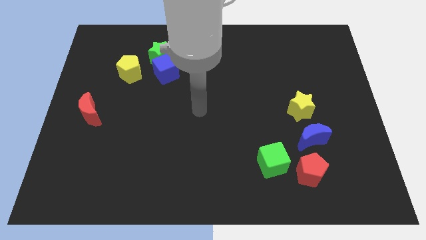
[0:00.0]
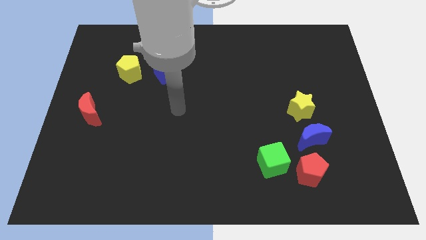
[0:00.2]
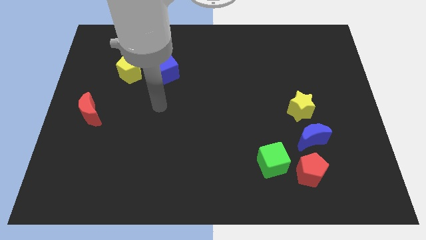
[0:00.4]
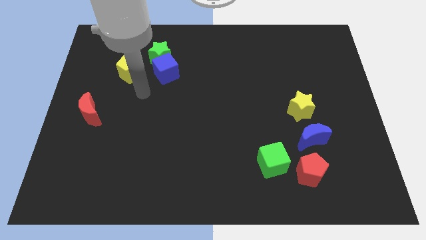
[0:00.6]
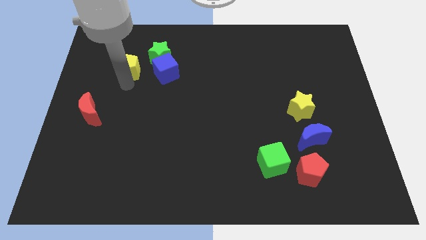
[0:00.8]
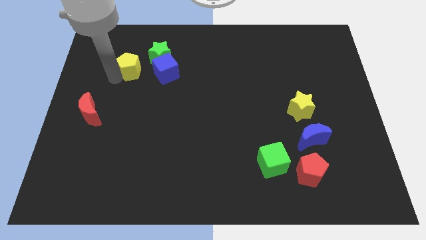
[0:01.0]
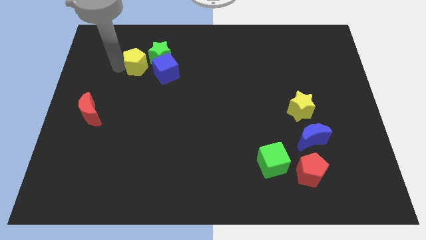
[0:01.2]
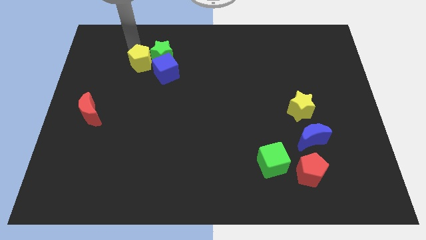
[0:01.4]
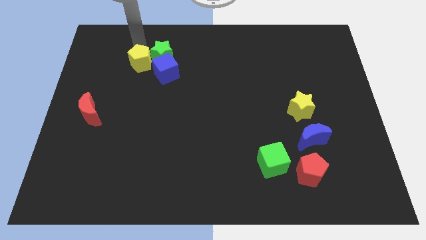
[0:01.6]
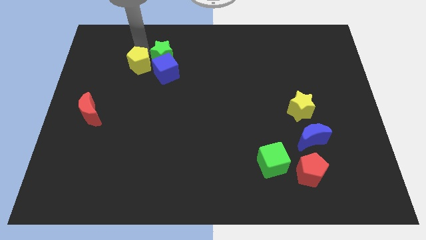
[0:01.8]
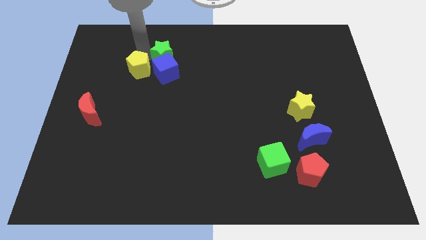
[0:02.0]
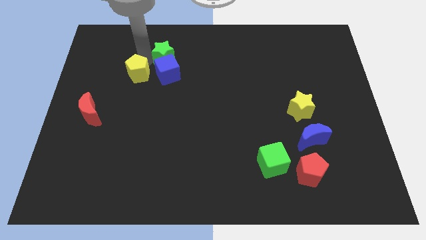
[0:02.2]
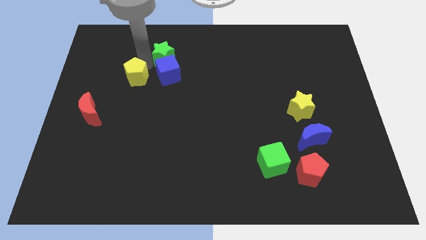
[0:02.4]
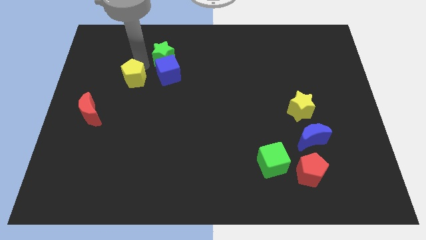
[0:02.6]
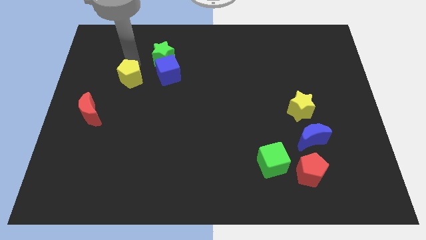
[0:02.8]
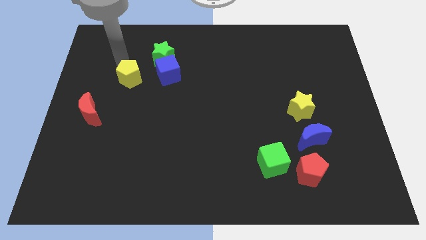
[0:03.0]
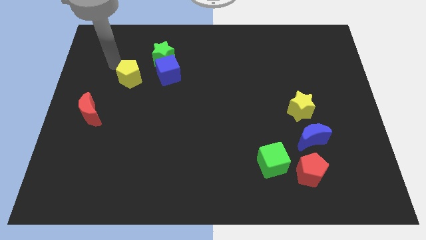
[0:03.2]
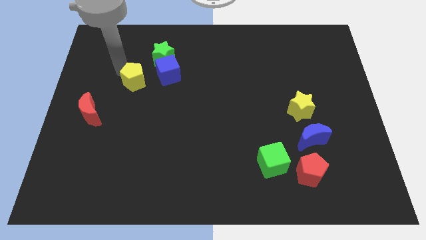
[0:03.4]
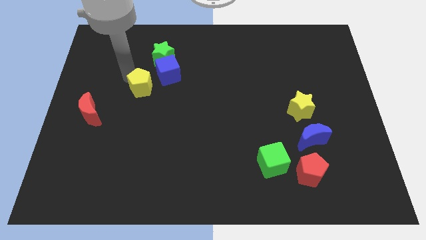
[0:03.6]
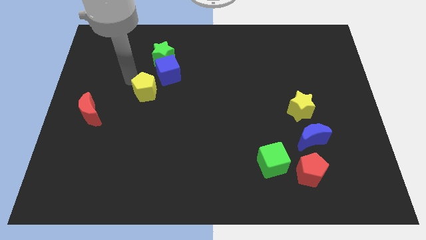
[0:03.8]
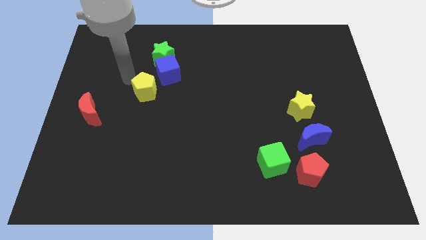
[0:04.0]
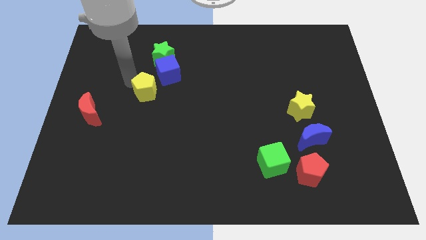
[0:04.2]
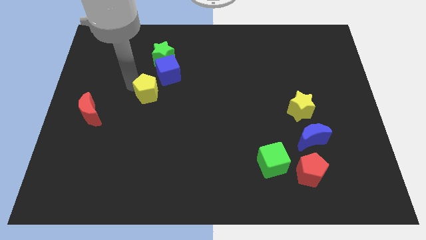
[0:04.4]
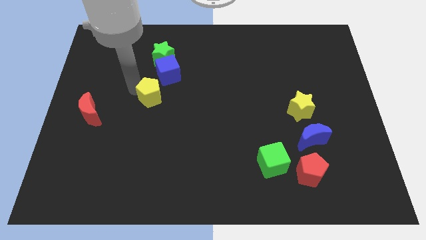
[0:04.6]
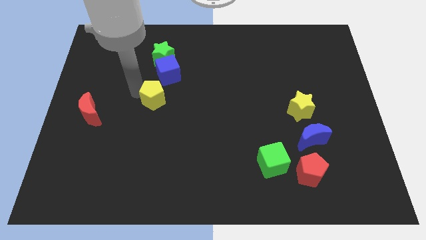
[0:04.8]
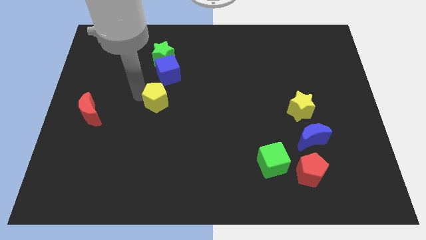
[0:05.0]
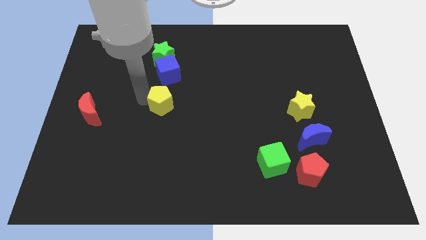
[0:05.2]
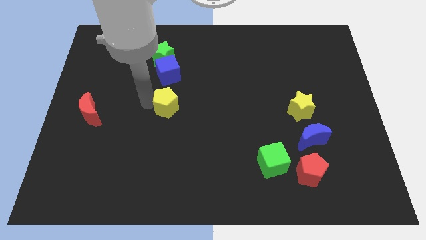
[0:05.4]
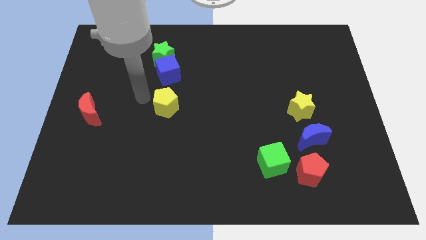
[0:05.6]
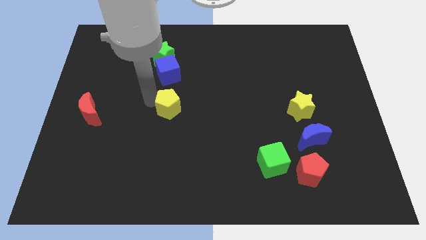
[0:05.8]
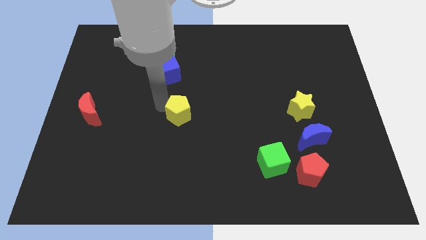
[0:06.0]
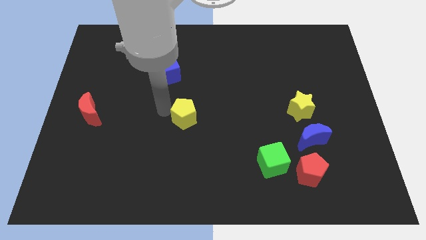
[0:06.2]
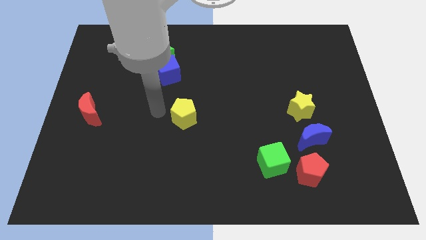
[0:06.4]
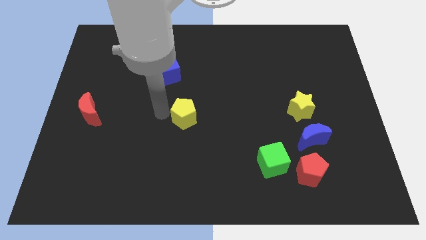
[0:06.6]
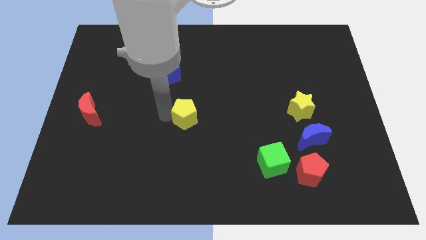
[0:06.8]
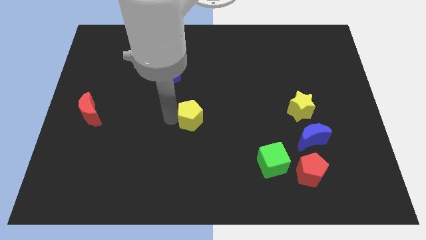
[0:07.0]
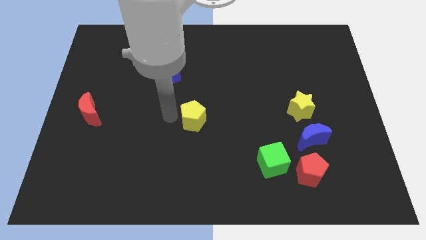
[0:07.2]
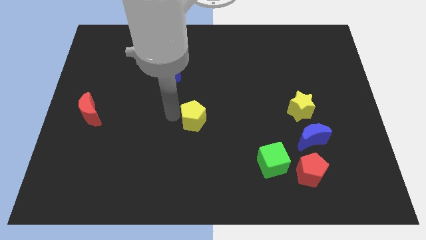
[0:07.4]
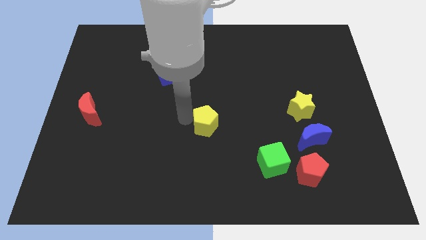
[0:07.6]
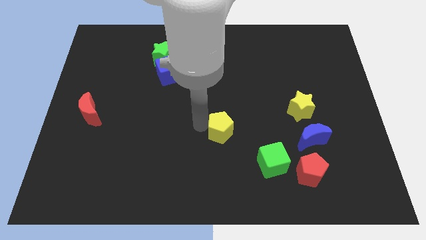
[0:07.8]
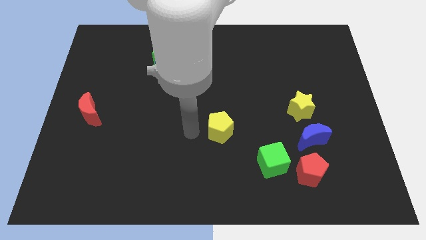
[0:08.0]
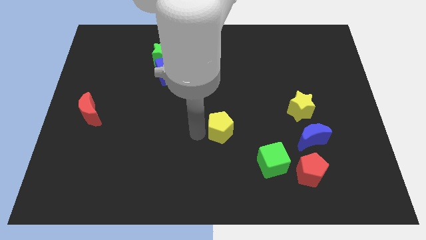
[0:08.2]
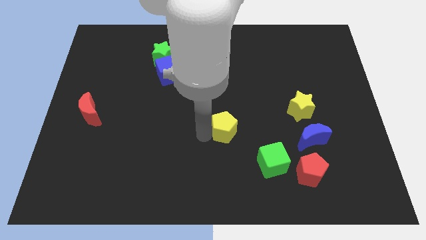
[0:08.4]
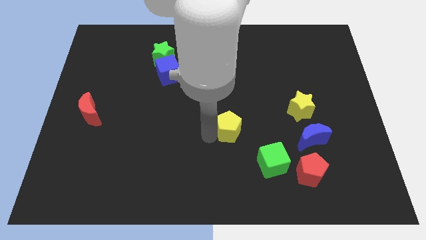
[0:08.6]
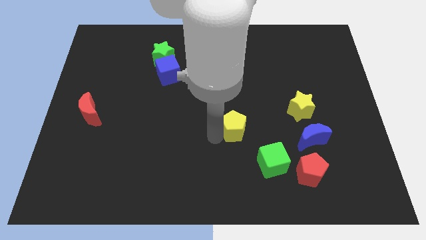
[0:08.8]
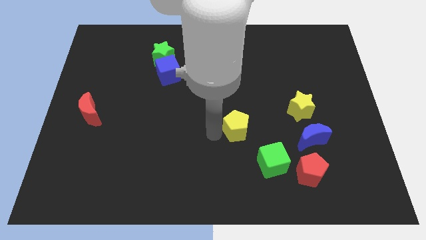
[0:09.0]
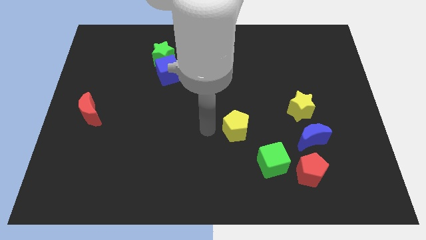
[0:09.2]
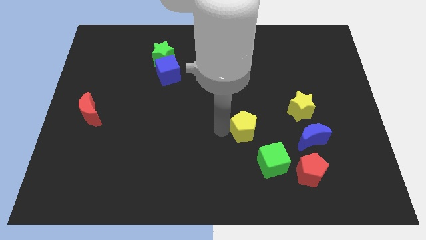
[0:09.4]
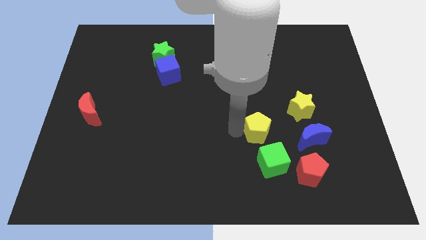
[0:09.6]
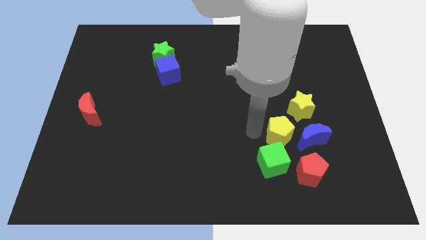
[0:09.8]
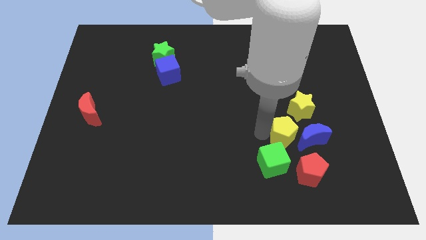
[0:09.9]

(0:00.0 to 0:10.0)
move the yellow pentagon towards the blue moon

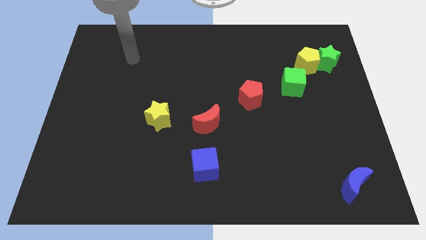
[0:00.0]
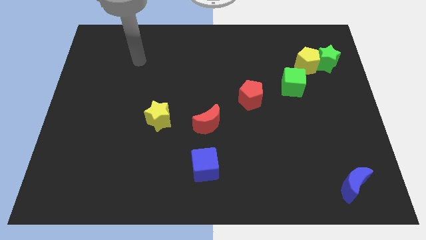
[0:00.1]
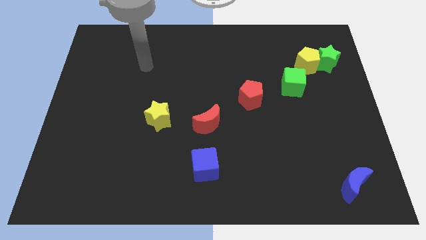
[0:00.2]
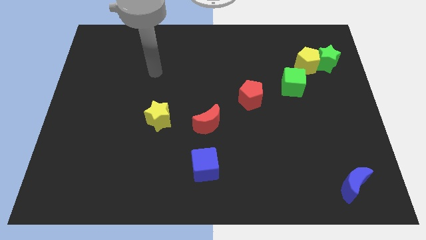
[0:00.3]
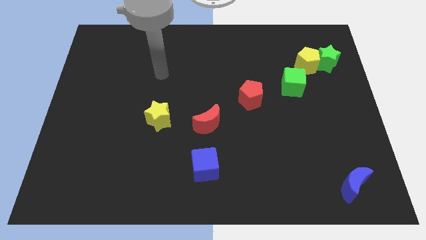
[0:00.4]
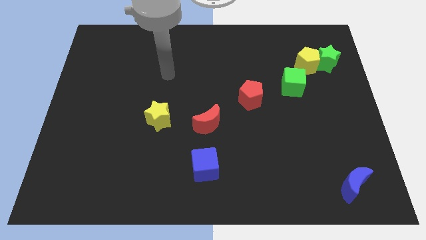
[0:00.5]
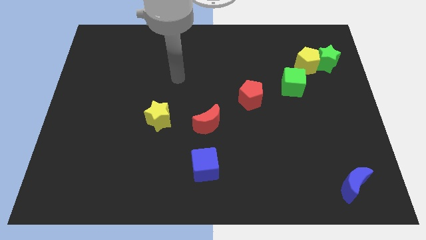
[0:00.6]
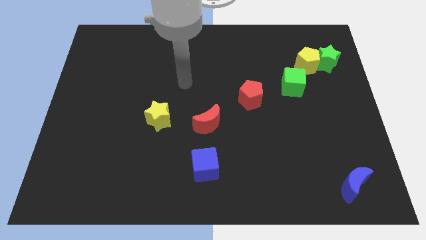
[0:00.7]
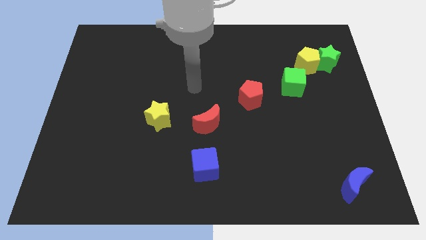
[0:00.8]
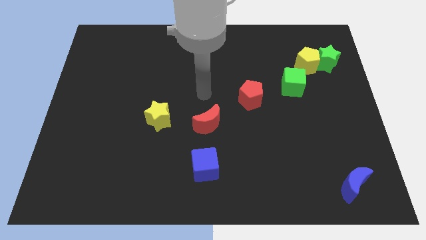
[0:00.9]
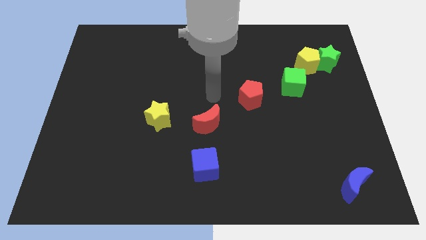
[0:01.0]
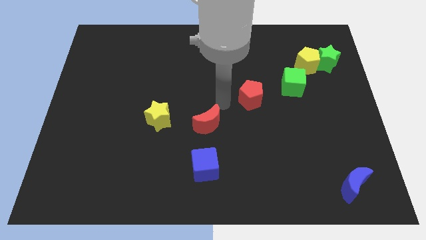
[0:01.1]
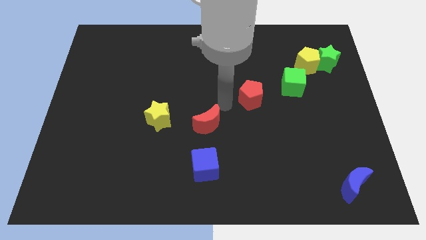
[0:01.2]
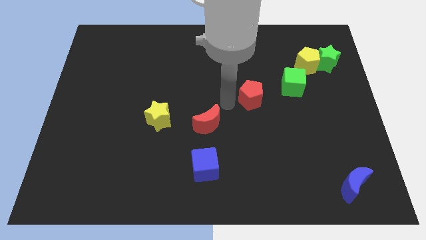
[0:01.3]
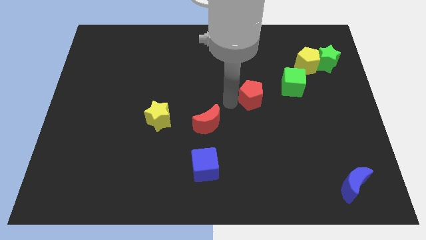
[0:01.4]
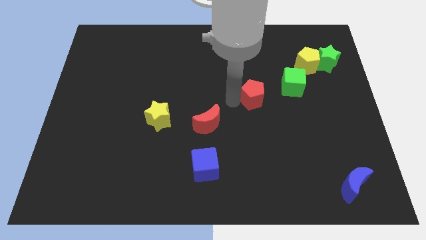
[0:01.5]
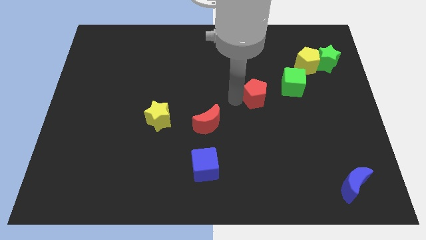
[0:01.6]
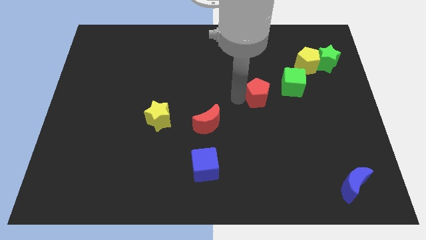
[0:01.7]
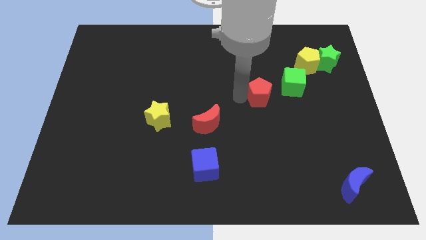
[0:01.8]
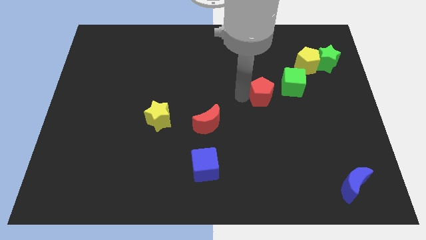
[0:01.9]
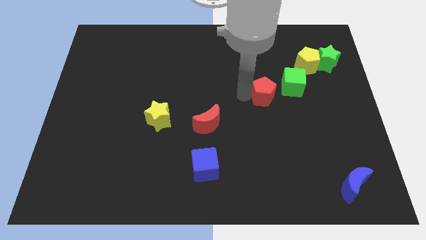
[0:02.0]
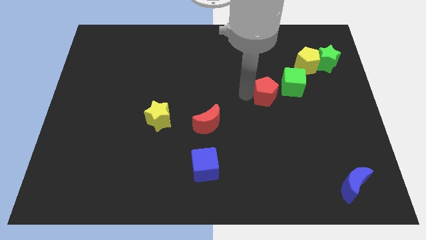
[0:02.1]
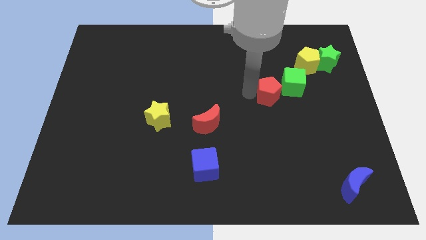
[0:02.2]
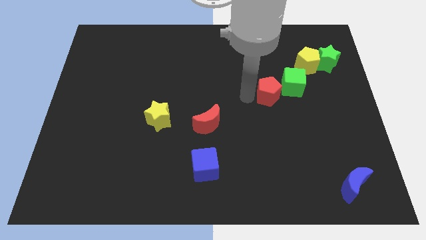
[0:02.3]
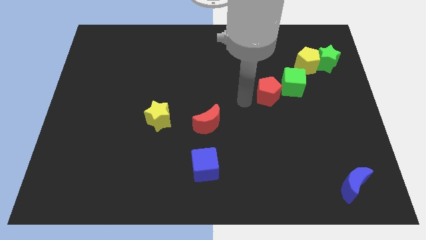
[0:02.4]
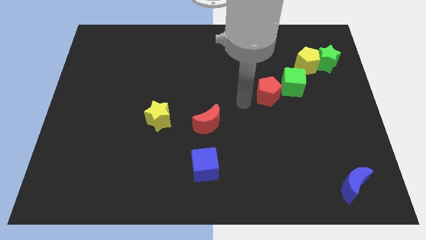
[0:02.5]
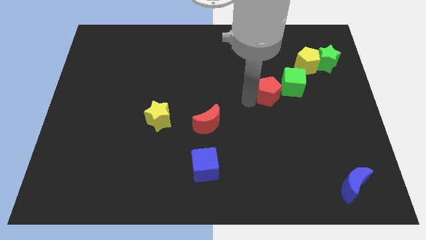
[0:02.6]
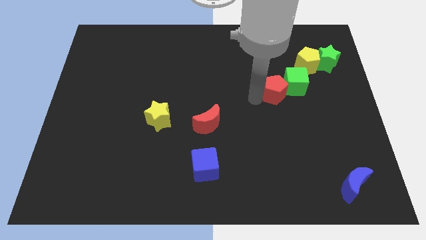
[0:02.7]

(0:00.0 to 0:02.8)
move the red pentagon next to the green cube

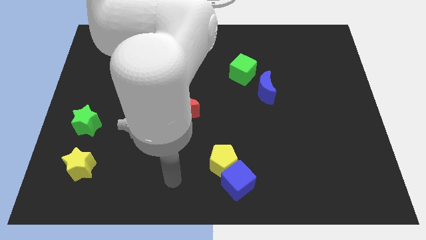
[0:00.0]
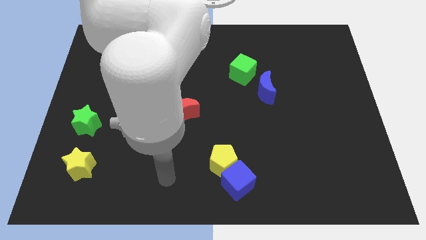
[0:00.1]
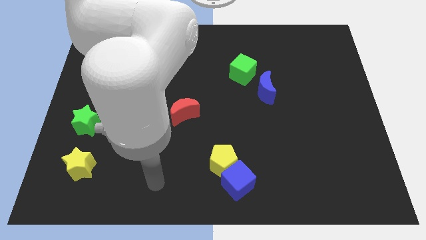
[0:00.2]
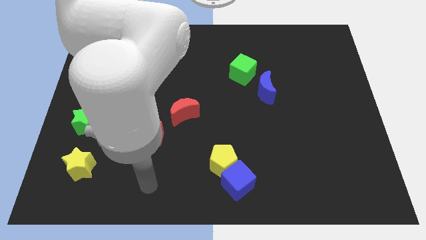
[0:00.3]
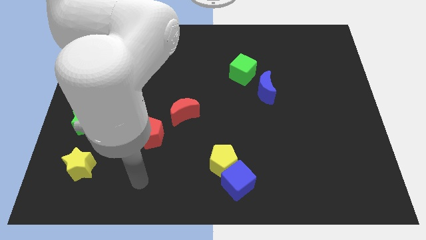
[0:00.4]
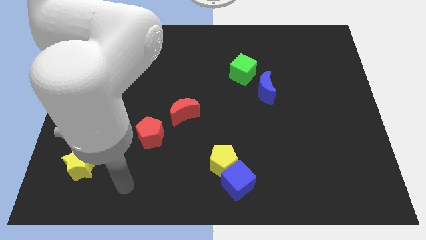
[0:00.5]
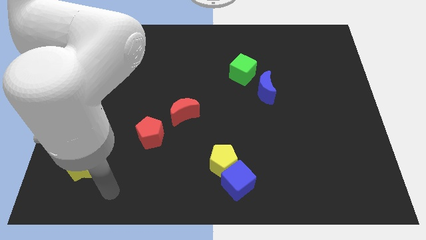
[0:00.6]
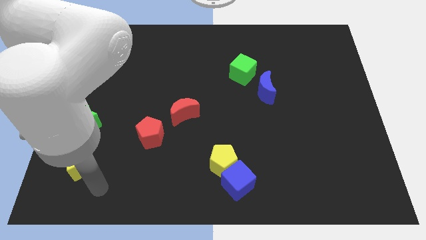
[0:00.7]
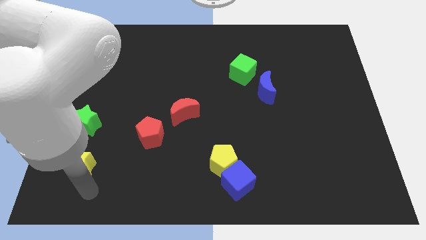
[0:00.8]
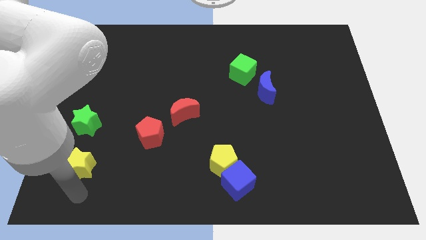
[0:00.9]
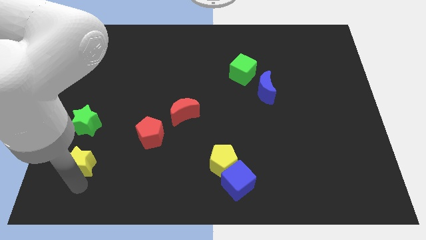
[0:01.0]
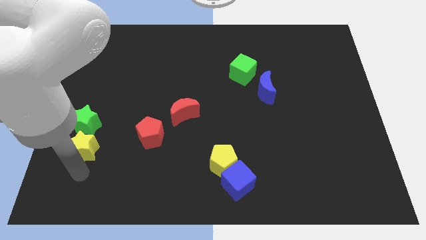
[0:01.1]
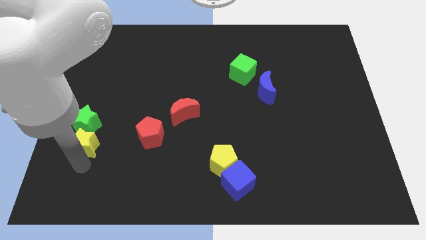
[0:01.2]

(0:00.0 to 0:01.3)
move the yellow star close to the green star
